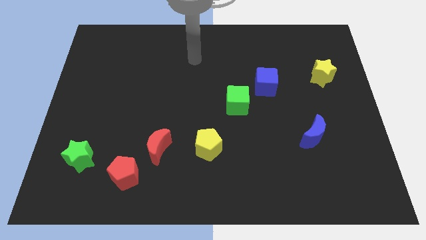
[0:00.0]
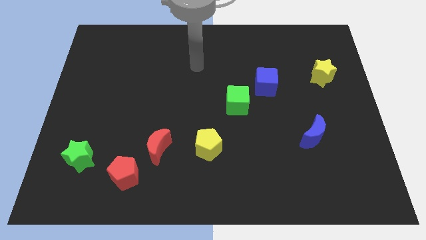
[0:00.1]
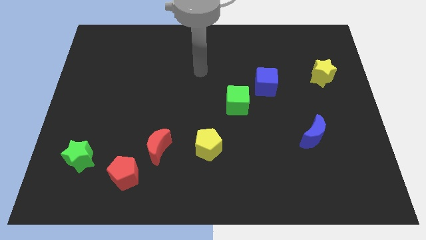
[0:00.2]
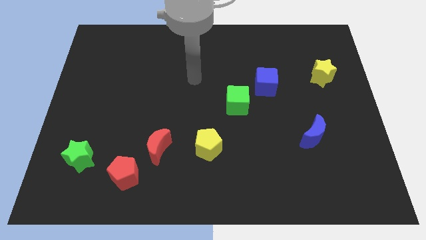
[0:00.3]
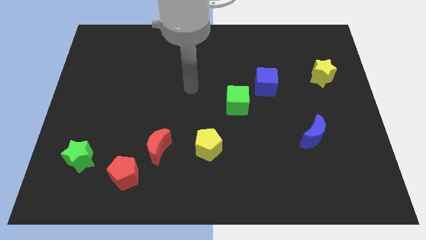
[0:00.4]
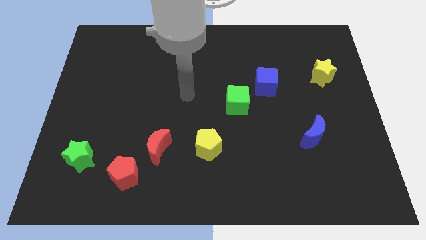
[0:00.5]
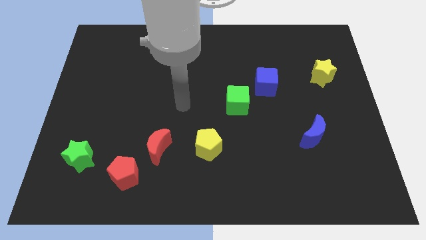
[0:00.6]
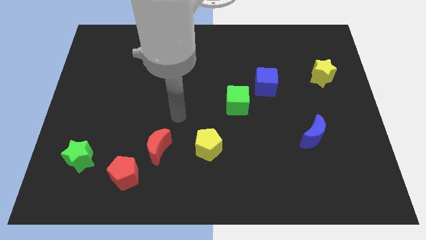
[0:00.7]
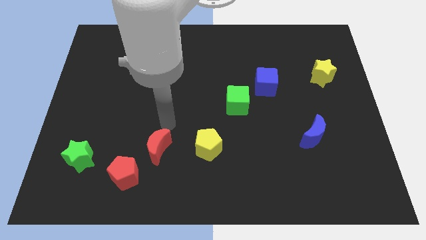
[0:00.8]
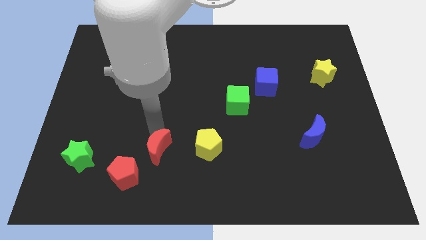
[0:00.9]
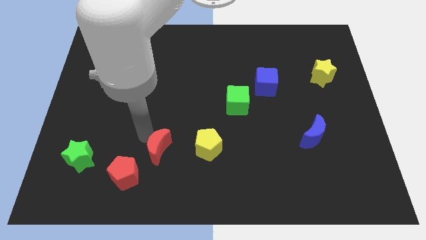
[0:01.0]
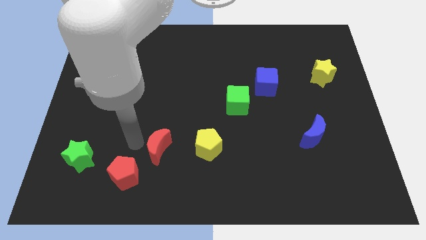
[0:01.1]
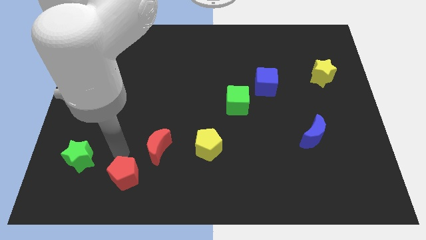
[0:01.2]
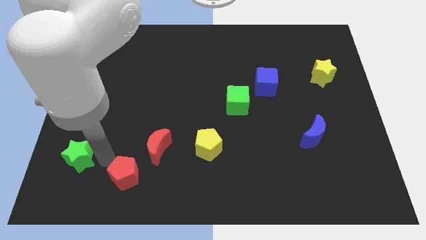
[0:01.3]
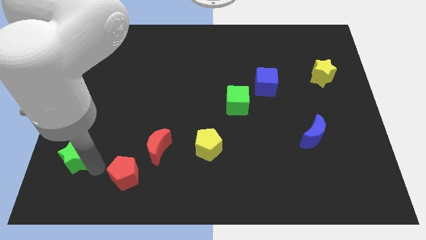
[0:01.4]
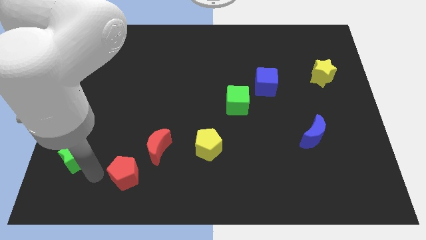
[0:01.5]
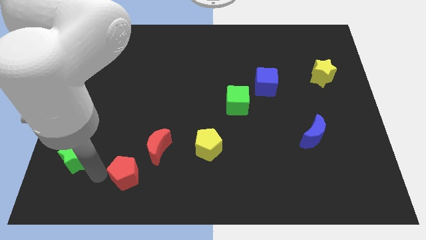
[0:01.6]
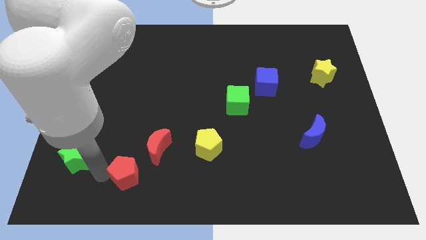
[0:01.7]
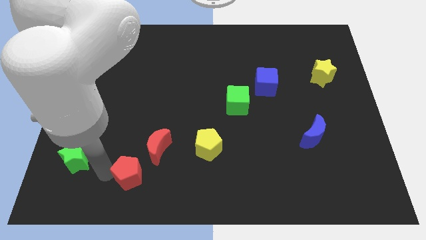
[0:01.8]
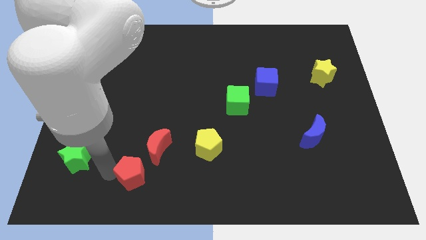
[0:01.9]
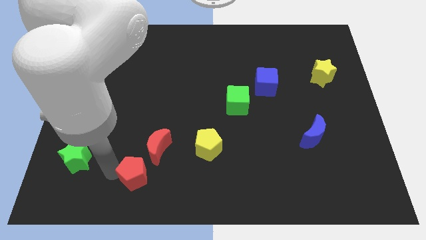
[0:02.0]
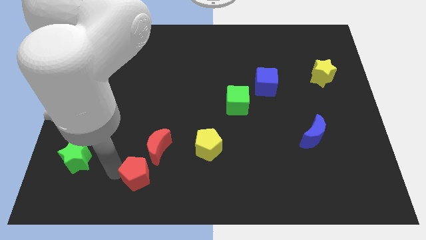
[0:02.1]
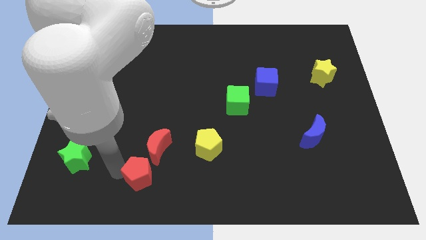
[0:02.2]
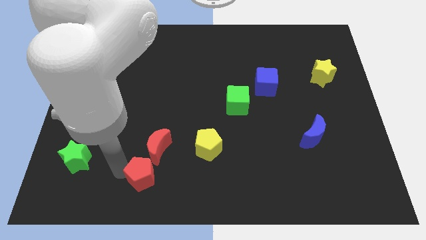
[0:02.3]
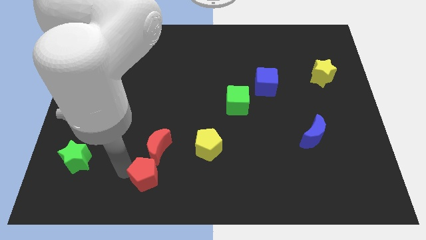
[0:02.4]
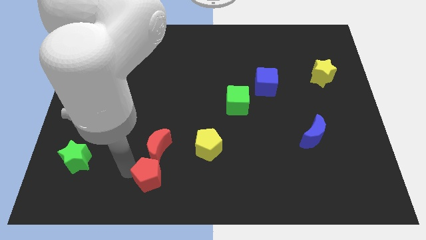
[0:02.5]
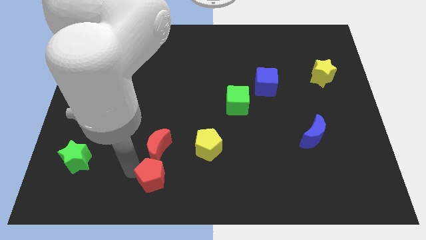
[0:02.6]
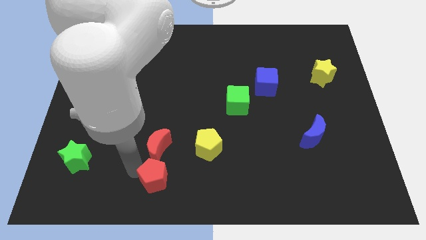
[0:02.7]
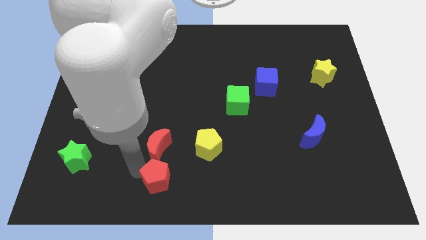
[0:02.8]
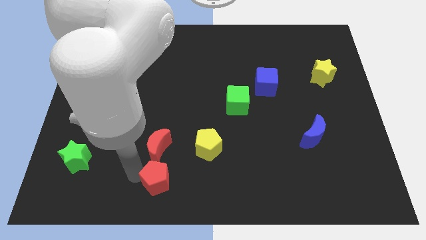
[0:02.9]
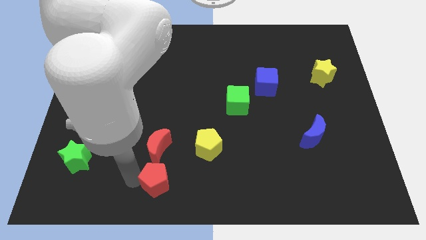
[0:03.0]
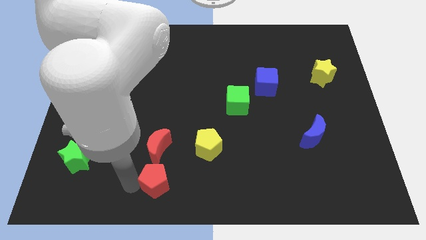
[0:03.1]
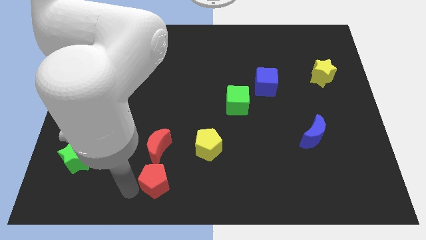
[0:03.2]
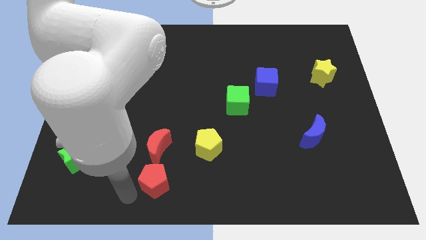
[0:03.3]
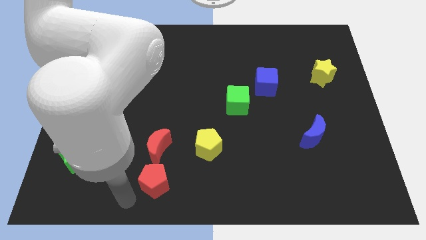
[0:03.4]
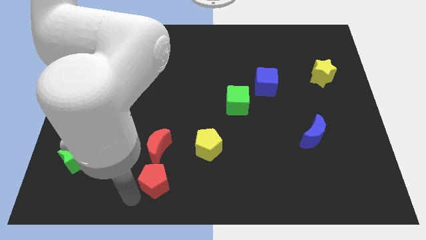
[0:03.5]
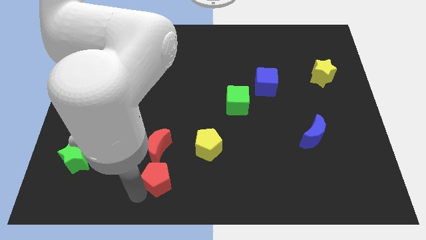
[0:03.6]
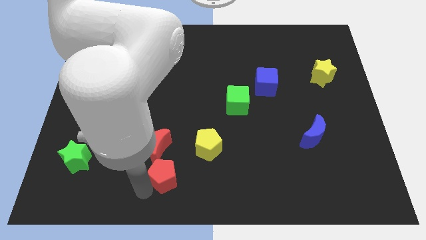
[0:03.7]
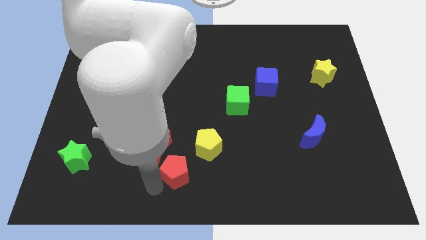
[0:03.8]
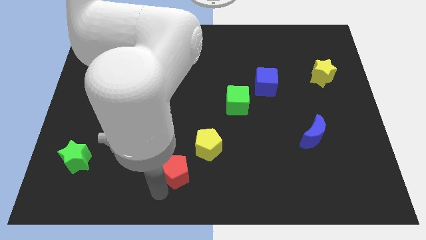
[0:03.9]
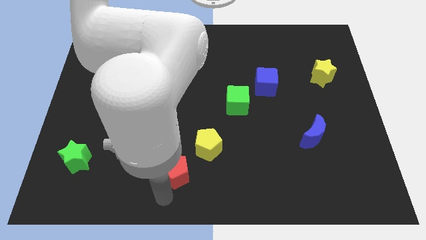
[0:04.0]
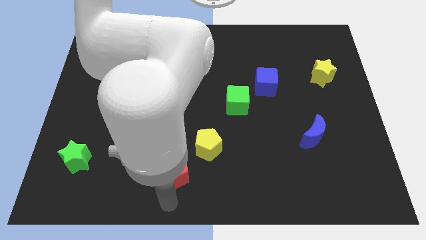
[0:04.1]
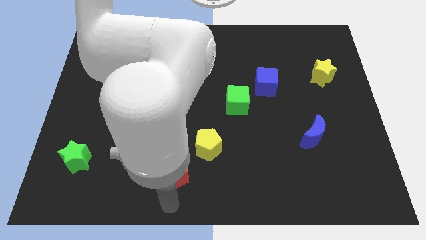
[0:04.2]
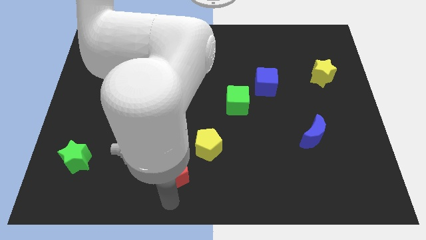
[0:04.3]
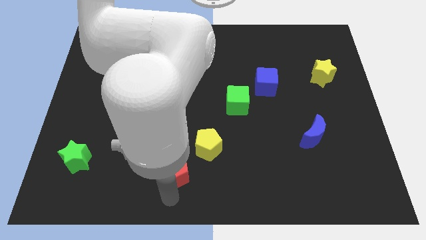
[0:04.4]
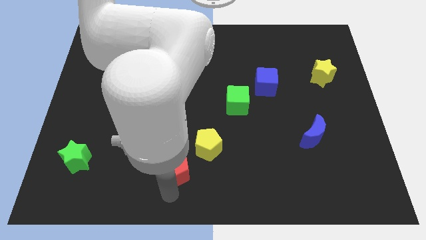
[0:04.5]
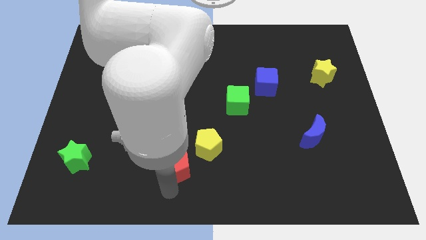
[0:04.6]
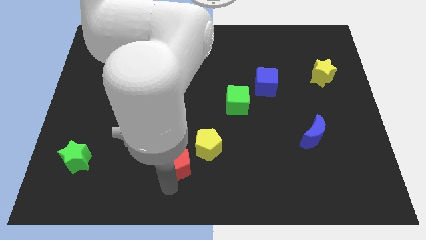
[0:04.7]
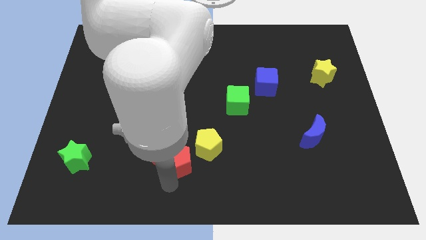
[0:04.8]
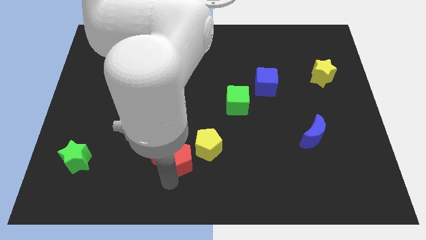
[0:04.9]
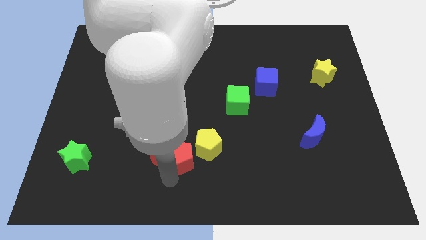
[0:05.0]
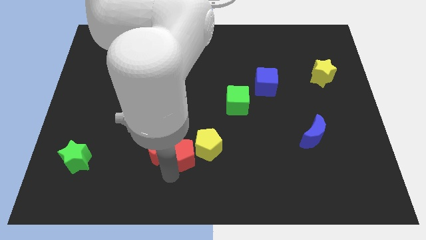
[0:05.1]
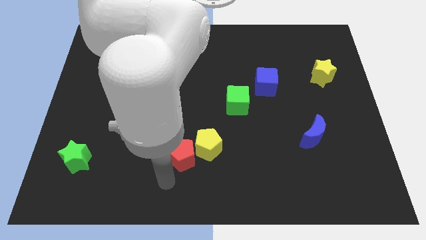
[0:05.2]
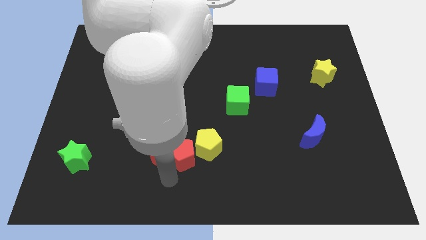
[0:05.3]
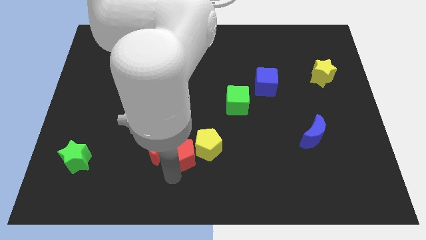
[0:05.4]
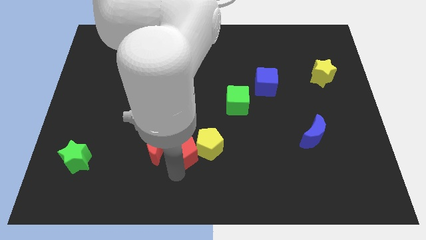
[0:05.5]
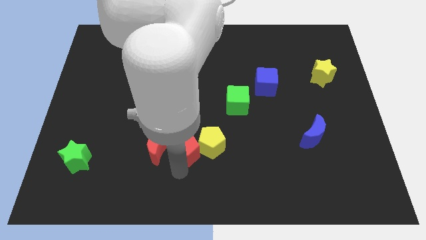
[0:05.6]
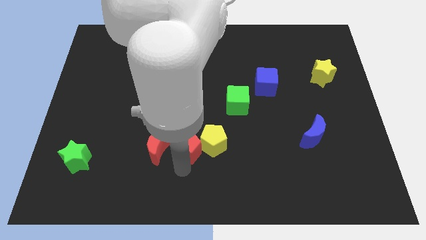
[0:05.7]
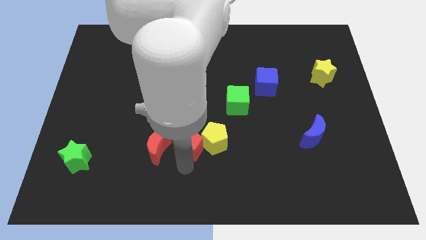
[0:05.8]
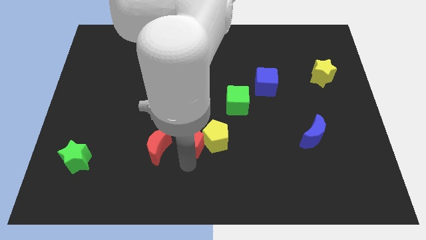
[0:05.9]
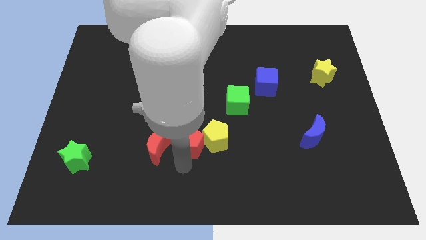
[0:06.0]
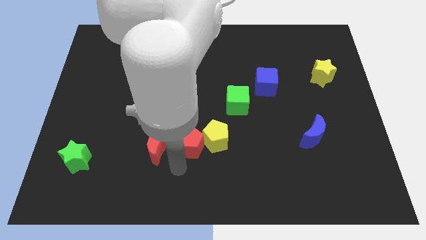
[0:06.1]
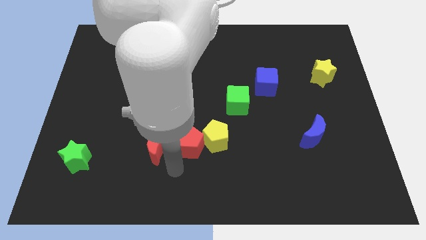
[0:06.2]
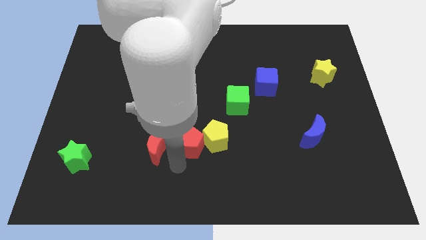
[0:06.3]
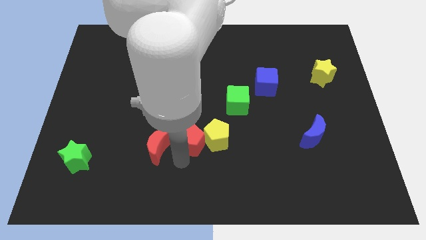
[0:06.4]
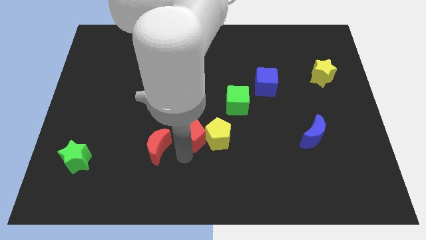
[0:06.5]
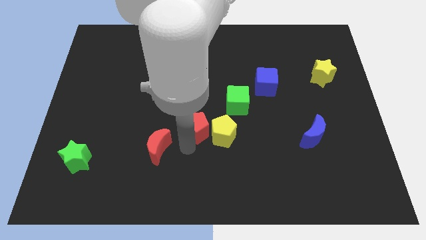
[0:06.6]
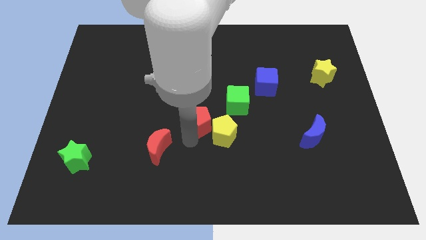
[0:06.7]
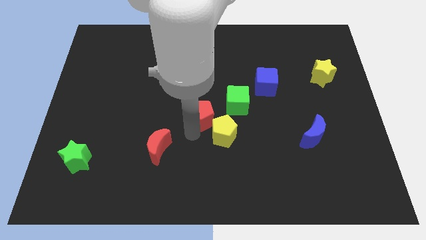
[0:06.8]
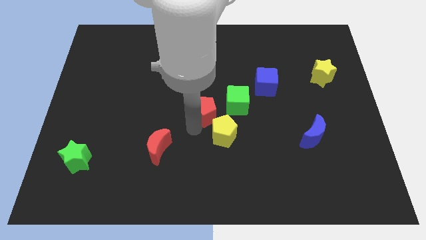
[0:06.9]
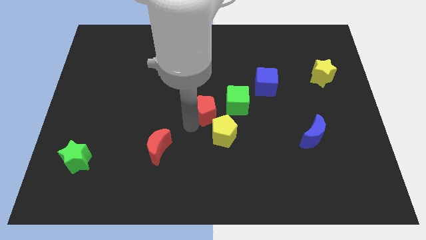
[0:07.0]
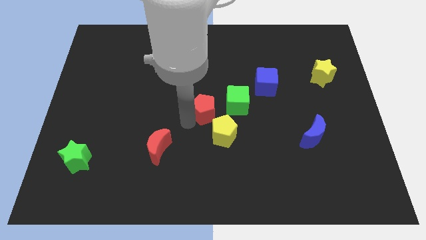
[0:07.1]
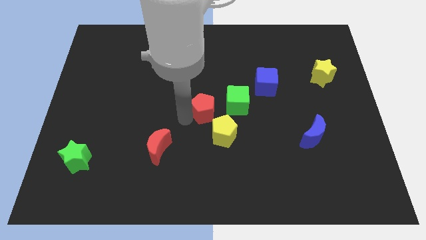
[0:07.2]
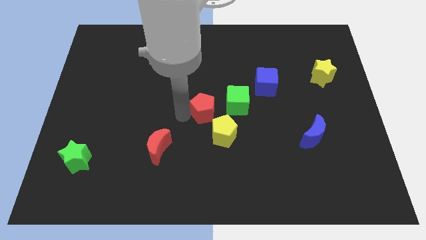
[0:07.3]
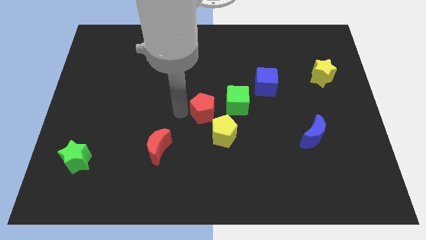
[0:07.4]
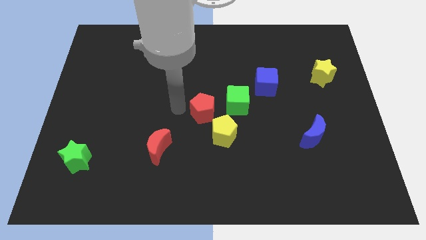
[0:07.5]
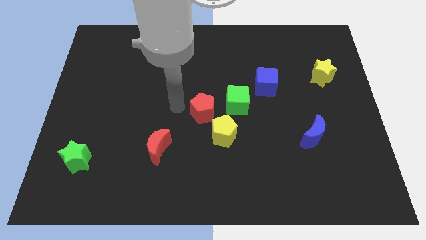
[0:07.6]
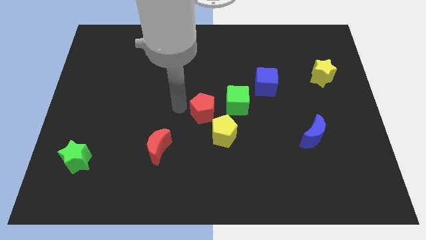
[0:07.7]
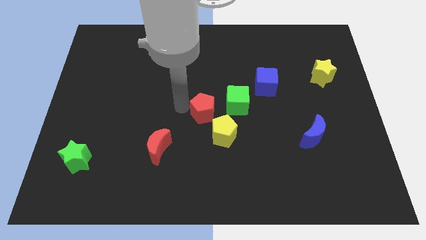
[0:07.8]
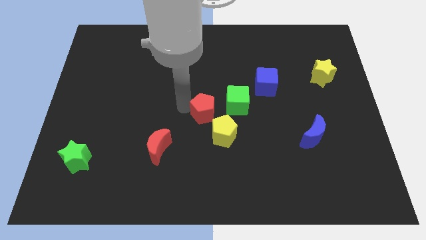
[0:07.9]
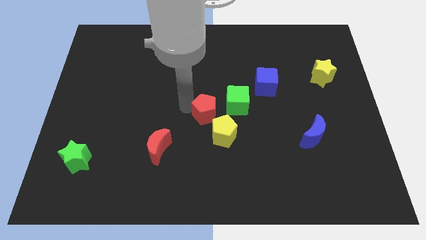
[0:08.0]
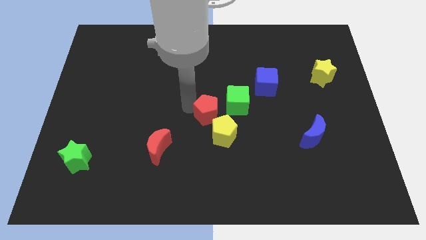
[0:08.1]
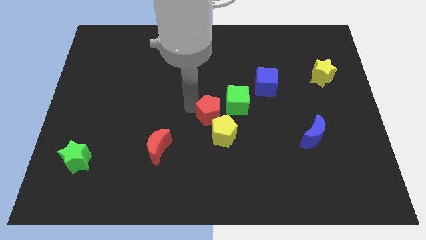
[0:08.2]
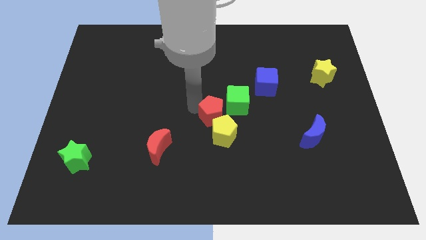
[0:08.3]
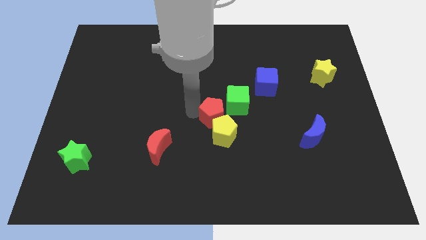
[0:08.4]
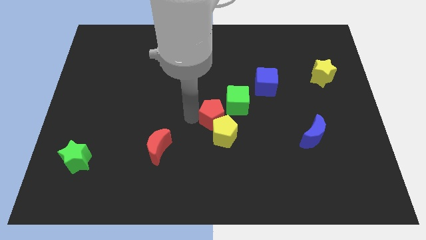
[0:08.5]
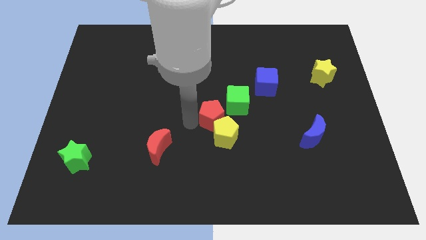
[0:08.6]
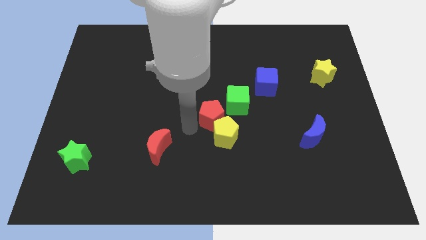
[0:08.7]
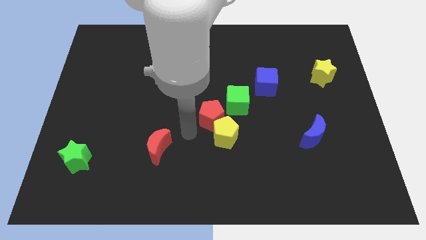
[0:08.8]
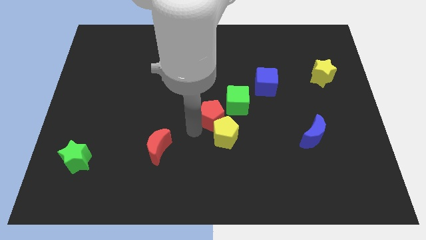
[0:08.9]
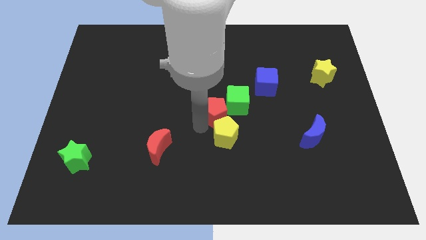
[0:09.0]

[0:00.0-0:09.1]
slide the red pentagon close to the green cube
